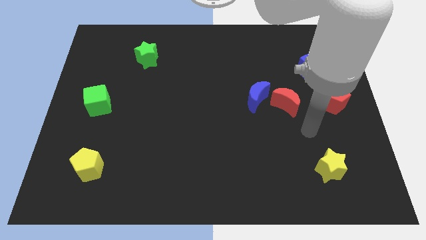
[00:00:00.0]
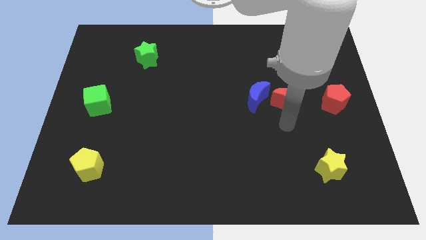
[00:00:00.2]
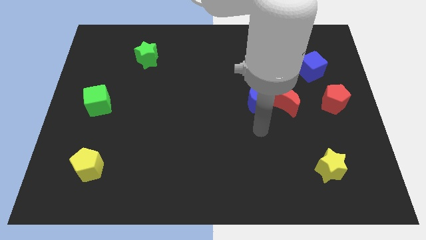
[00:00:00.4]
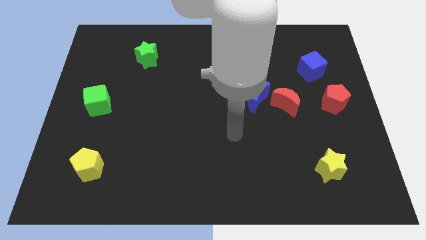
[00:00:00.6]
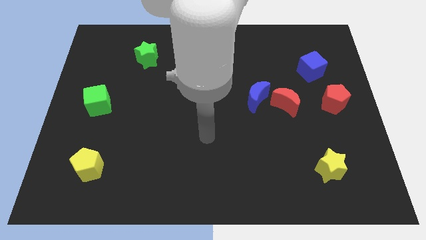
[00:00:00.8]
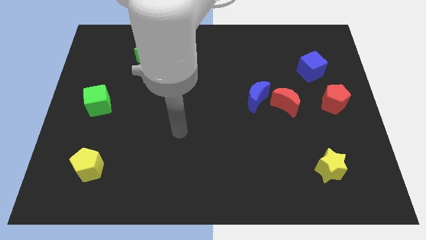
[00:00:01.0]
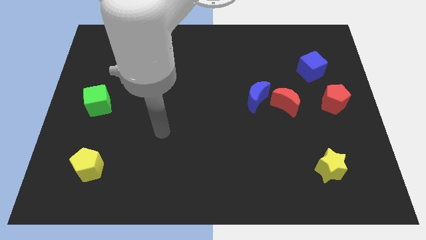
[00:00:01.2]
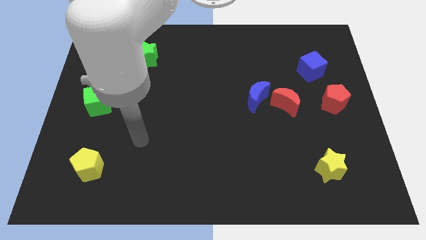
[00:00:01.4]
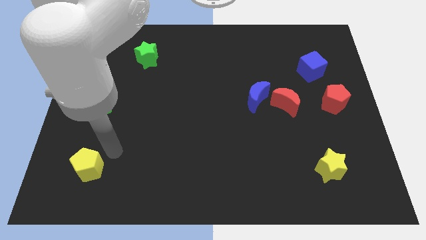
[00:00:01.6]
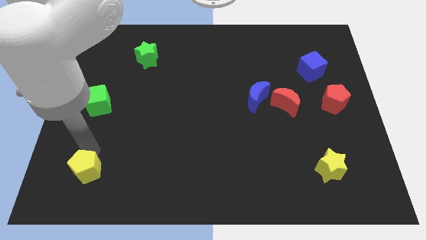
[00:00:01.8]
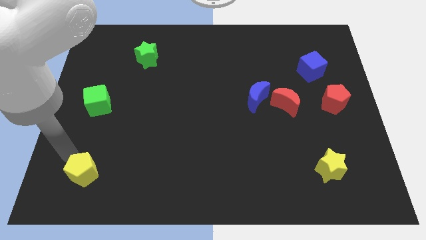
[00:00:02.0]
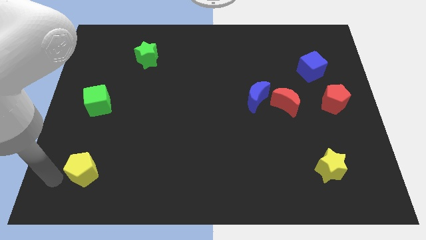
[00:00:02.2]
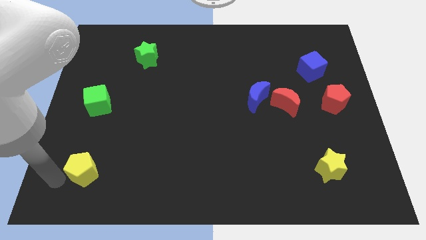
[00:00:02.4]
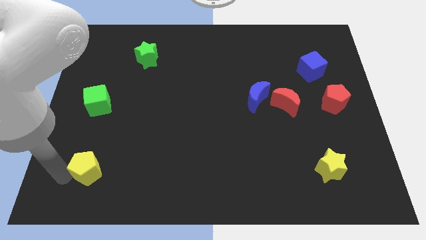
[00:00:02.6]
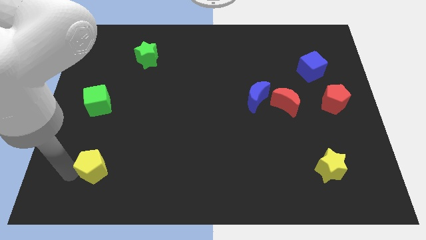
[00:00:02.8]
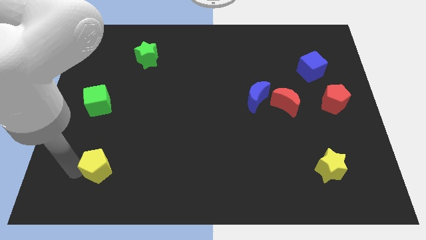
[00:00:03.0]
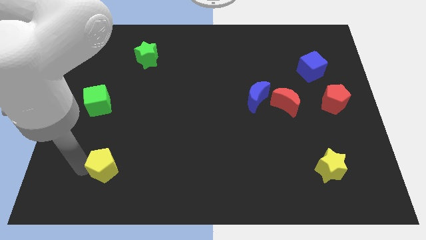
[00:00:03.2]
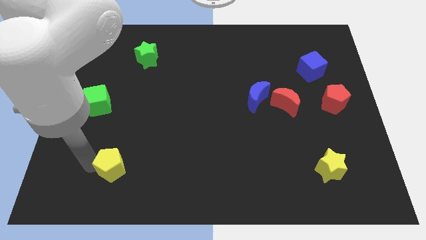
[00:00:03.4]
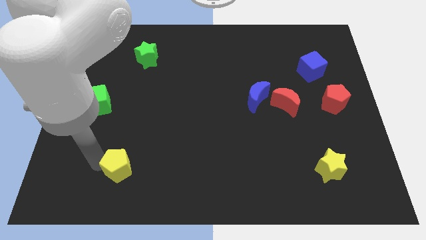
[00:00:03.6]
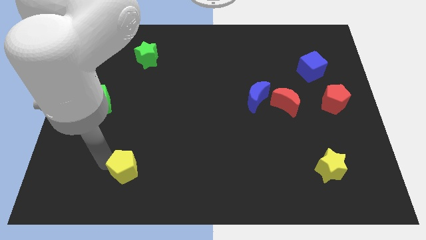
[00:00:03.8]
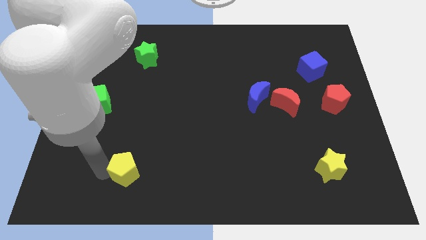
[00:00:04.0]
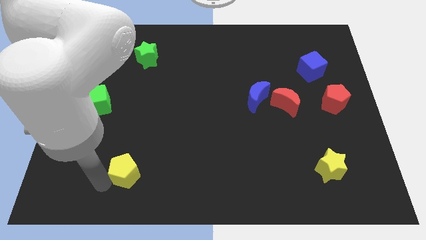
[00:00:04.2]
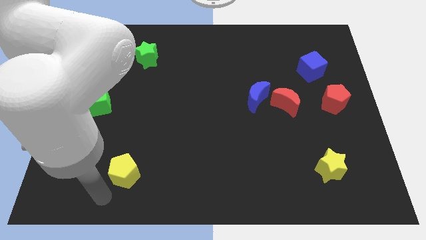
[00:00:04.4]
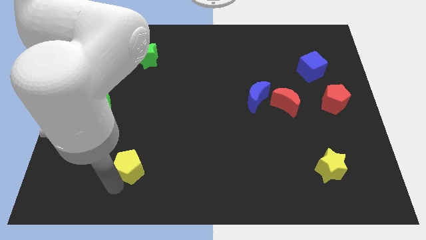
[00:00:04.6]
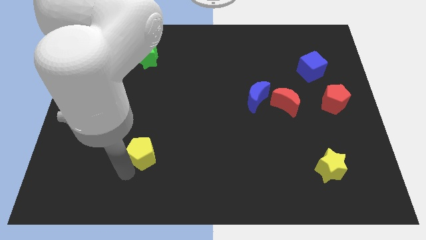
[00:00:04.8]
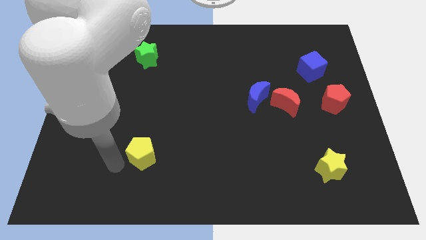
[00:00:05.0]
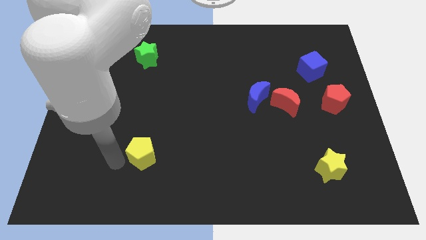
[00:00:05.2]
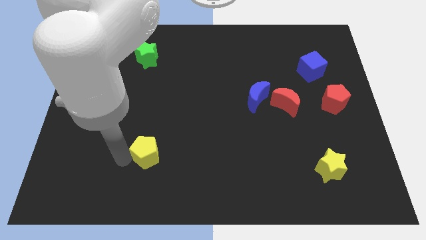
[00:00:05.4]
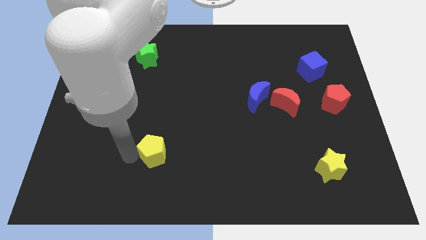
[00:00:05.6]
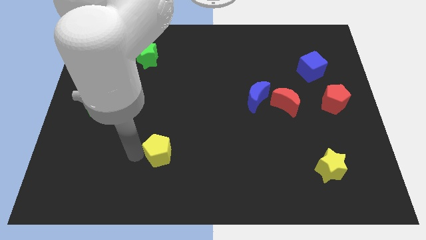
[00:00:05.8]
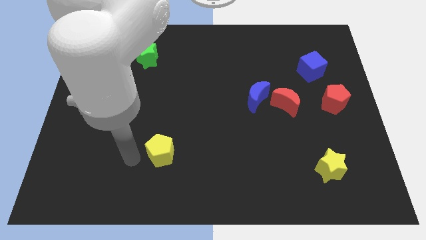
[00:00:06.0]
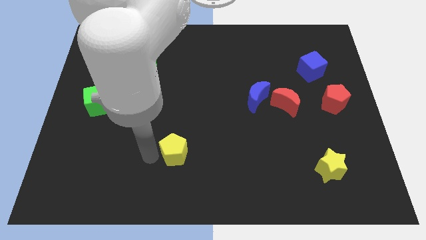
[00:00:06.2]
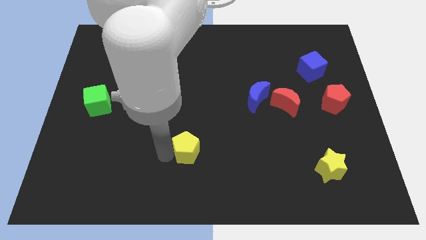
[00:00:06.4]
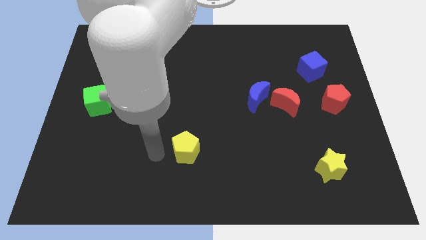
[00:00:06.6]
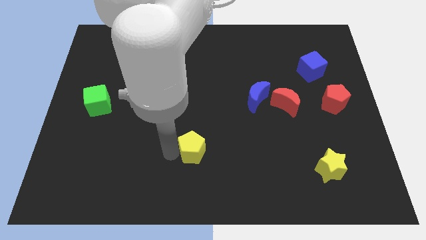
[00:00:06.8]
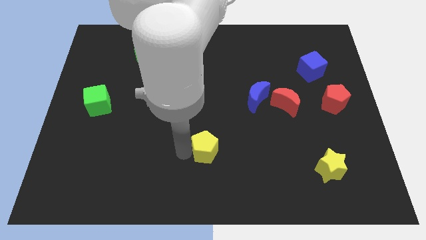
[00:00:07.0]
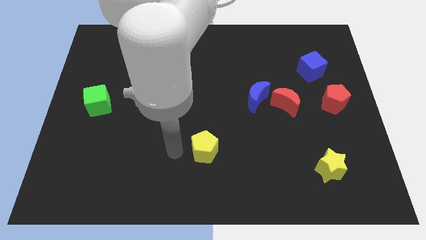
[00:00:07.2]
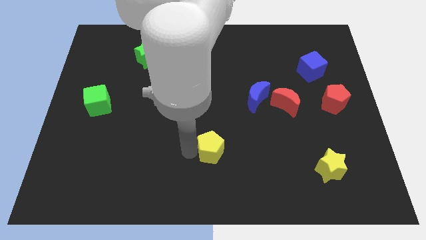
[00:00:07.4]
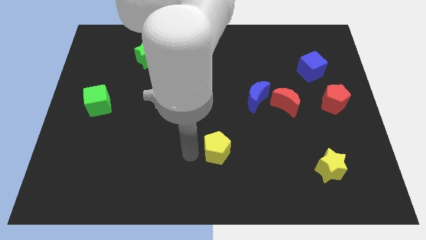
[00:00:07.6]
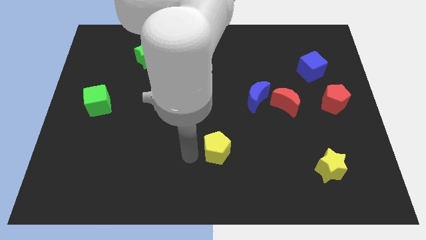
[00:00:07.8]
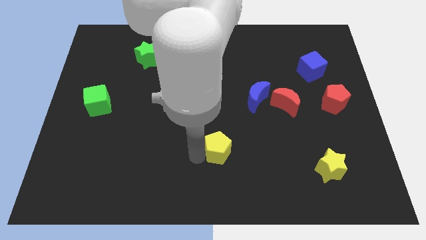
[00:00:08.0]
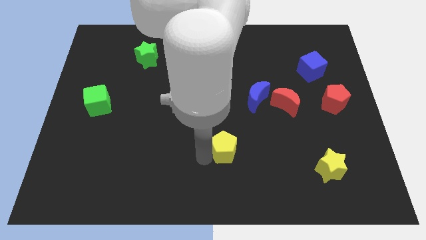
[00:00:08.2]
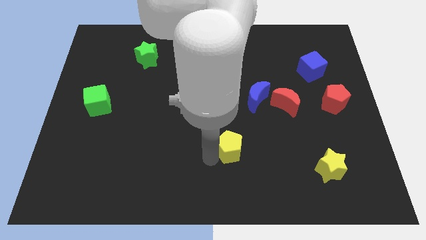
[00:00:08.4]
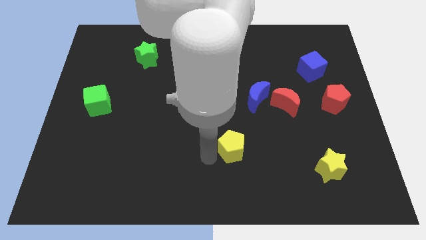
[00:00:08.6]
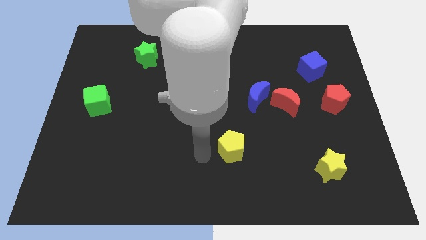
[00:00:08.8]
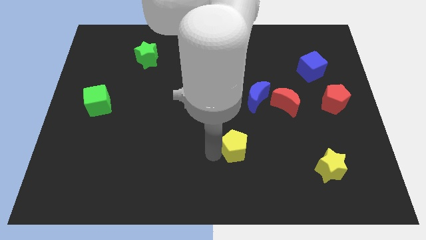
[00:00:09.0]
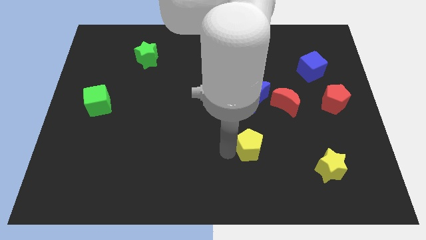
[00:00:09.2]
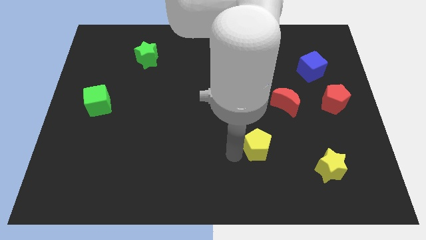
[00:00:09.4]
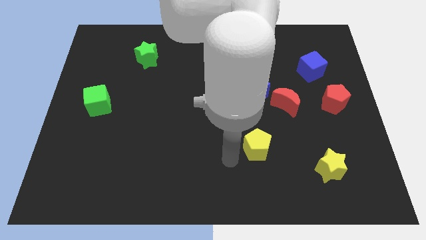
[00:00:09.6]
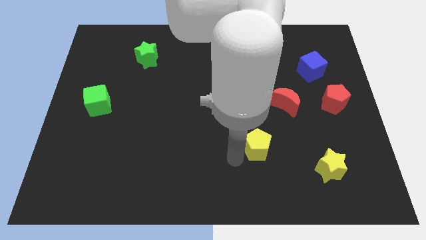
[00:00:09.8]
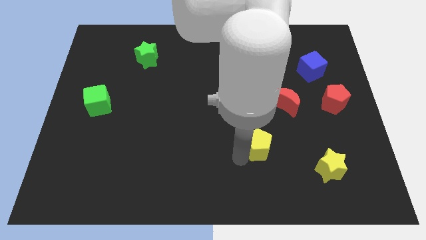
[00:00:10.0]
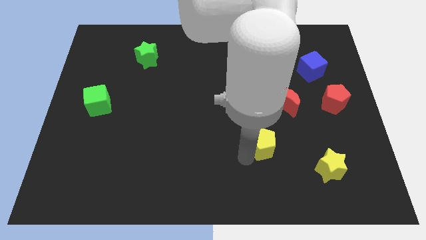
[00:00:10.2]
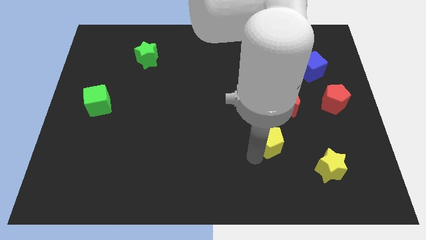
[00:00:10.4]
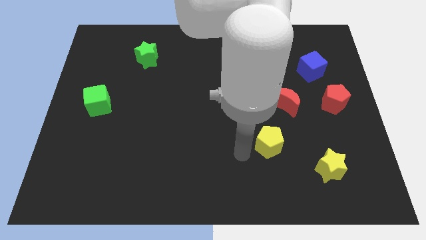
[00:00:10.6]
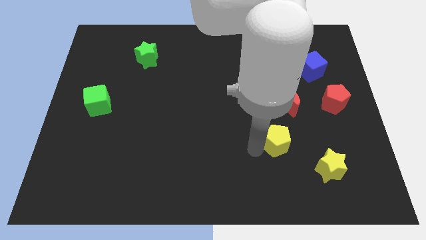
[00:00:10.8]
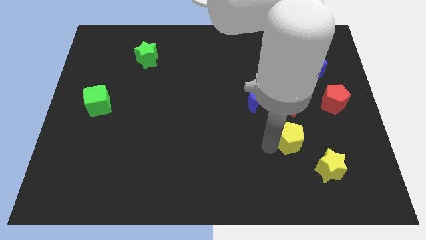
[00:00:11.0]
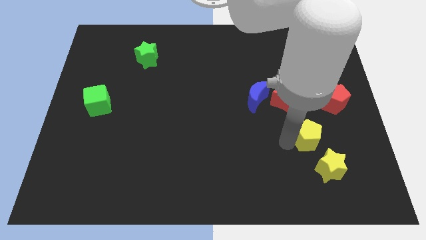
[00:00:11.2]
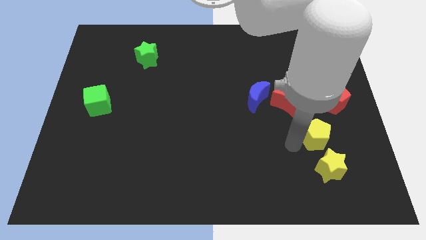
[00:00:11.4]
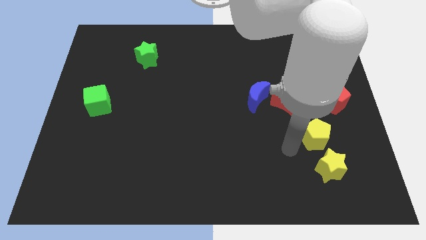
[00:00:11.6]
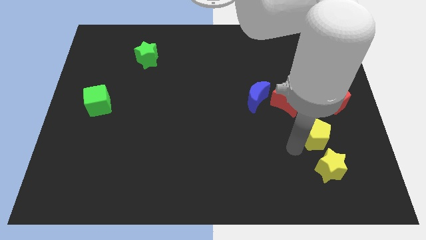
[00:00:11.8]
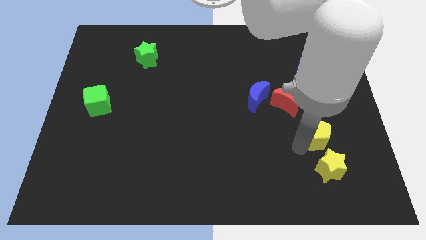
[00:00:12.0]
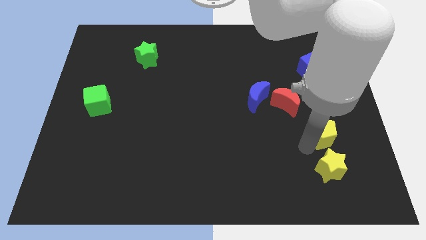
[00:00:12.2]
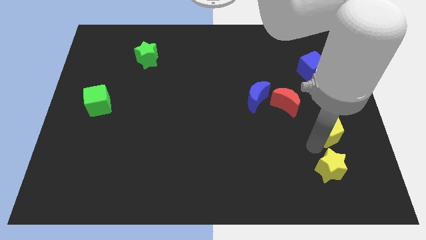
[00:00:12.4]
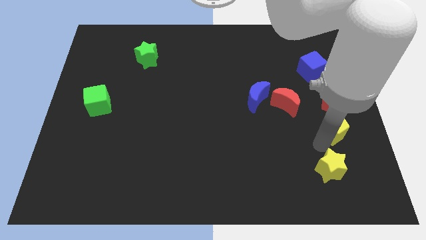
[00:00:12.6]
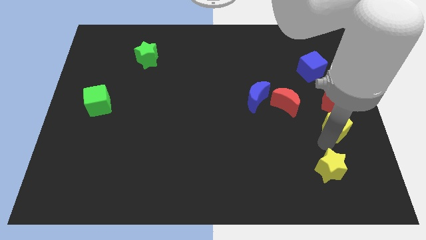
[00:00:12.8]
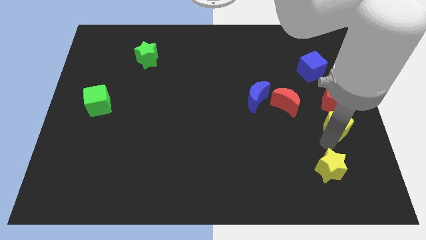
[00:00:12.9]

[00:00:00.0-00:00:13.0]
push the yellow pentagon to the right side
